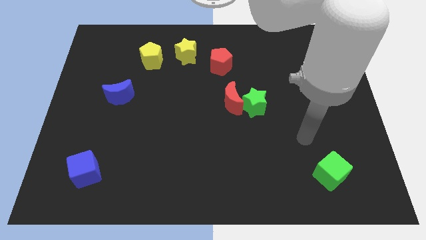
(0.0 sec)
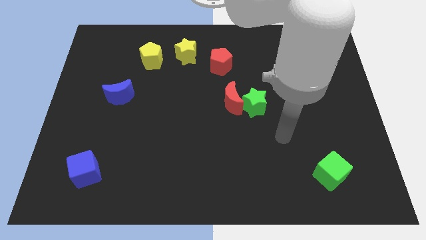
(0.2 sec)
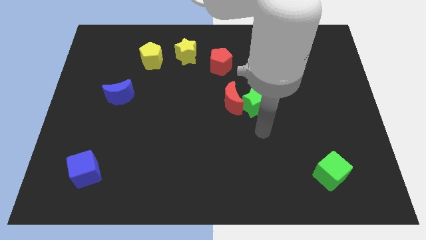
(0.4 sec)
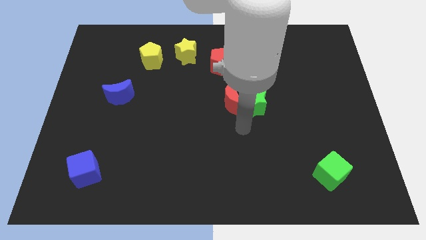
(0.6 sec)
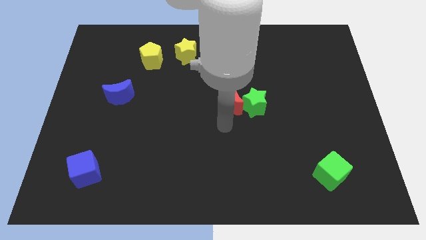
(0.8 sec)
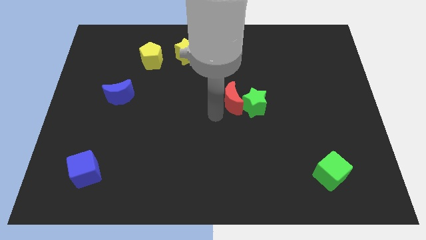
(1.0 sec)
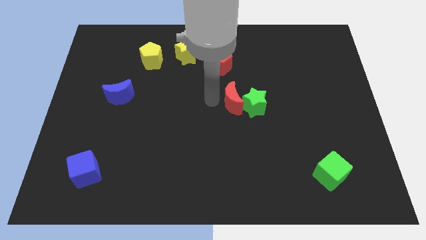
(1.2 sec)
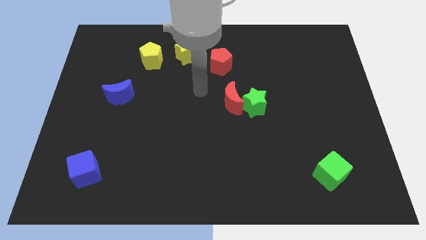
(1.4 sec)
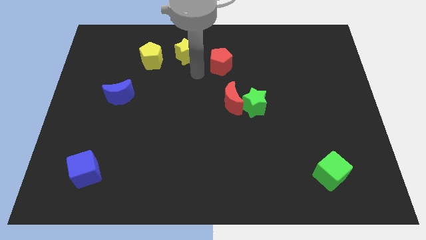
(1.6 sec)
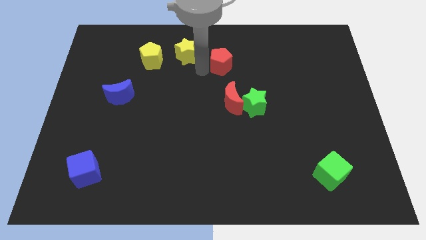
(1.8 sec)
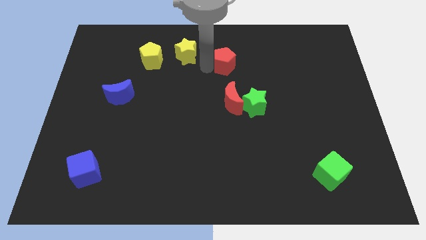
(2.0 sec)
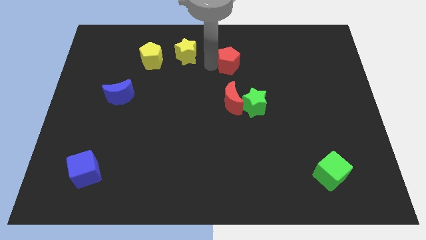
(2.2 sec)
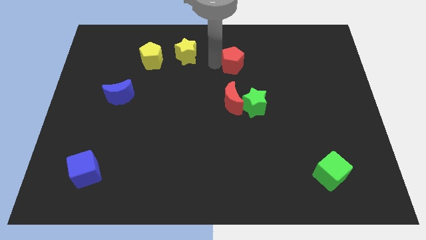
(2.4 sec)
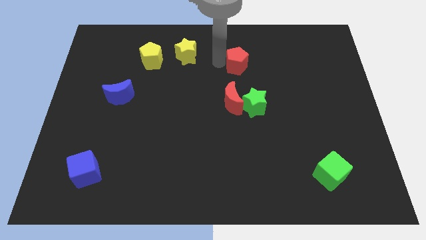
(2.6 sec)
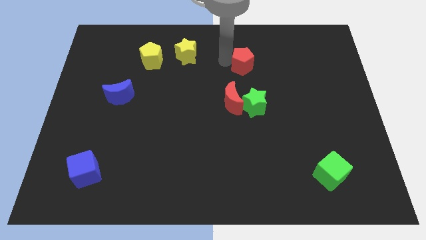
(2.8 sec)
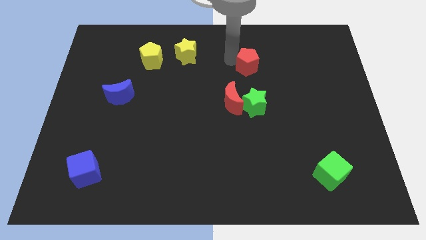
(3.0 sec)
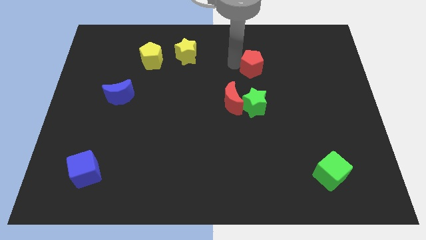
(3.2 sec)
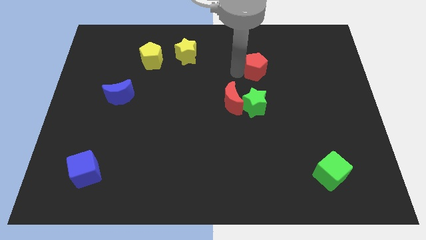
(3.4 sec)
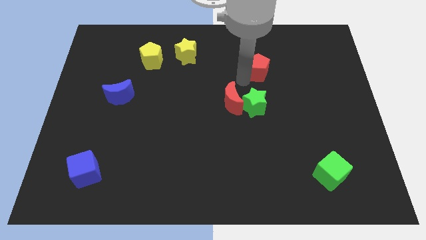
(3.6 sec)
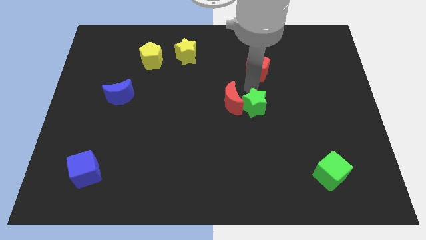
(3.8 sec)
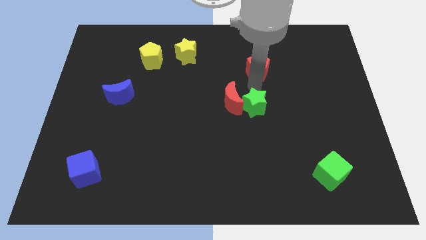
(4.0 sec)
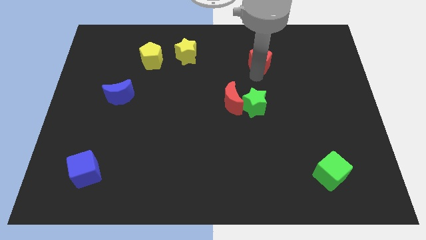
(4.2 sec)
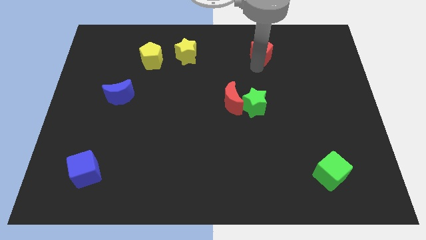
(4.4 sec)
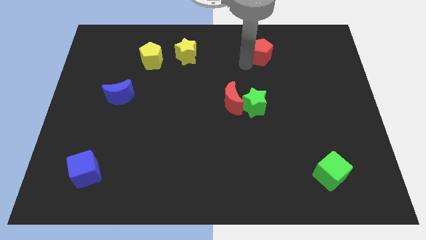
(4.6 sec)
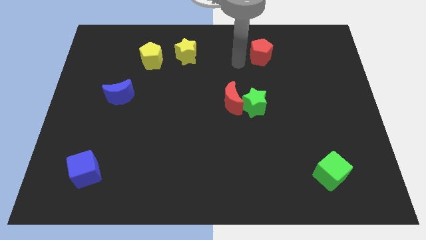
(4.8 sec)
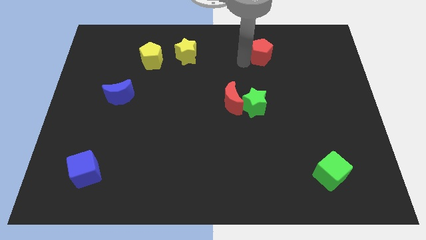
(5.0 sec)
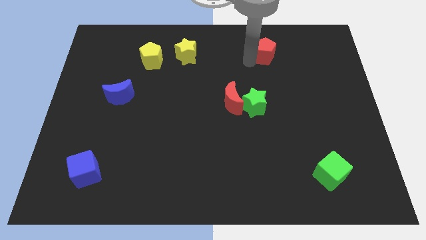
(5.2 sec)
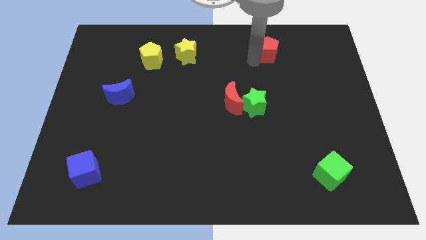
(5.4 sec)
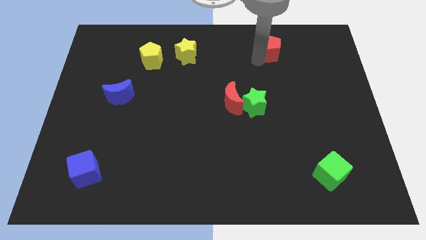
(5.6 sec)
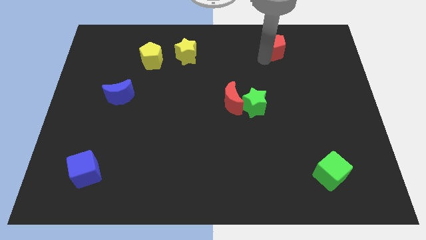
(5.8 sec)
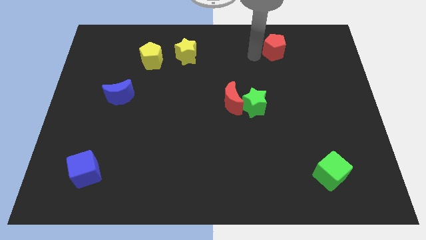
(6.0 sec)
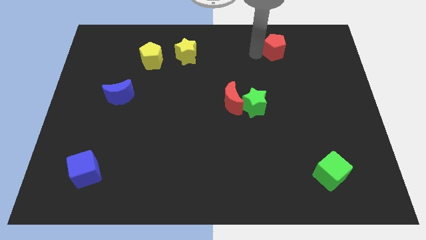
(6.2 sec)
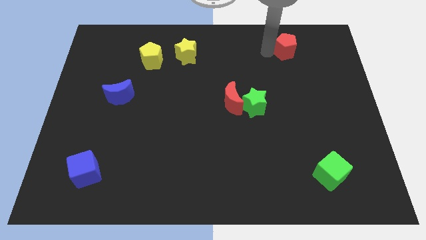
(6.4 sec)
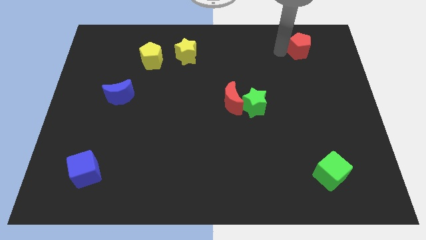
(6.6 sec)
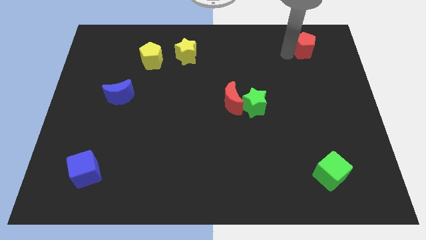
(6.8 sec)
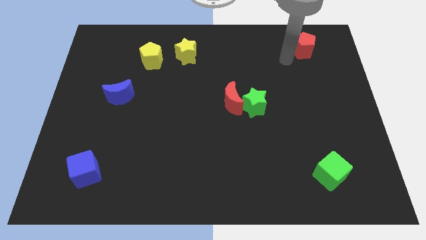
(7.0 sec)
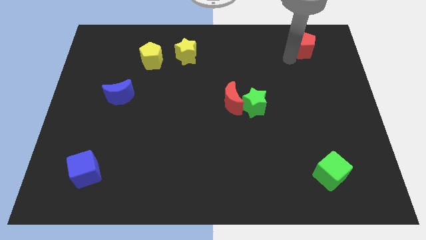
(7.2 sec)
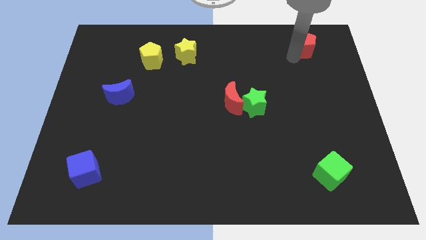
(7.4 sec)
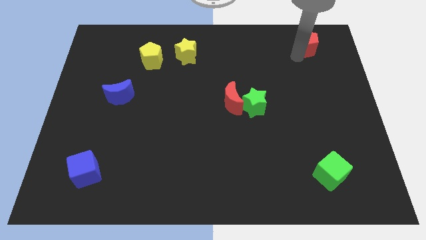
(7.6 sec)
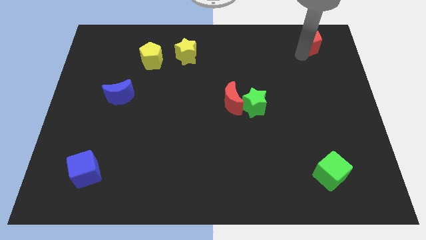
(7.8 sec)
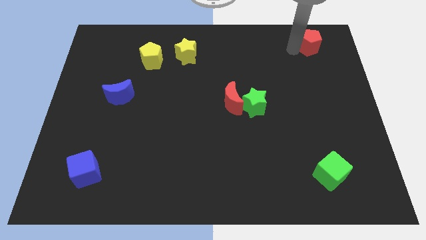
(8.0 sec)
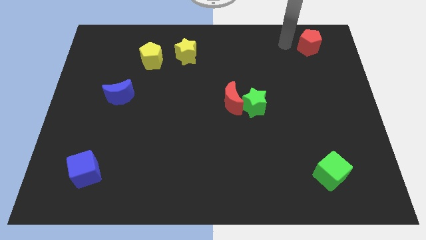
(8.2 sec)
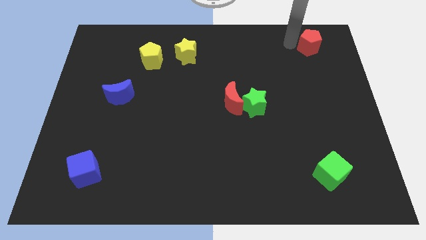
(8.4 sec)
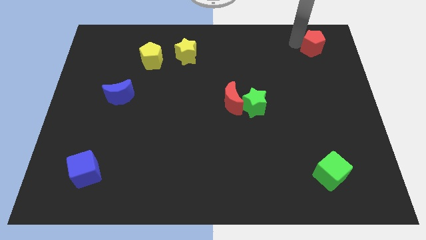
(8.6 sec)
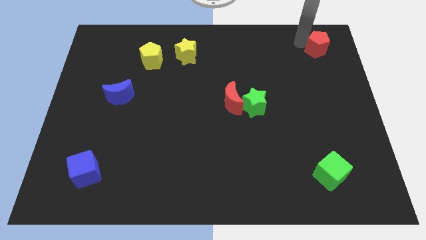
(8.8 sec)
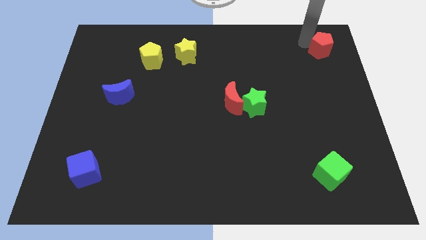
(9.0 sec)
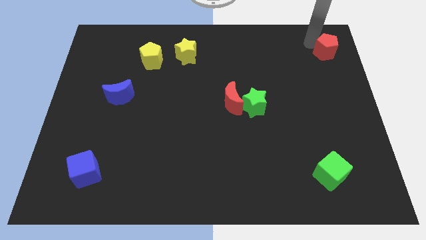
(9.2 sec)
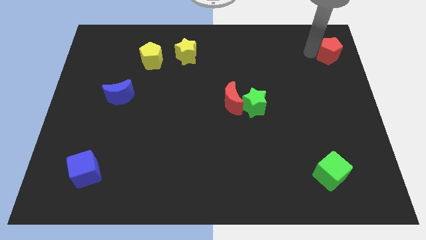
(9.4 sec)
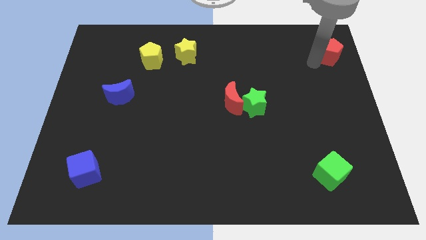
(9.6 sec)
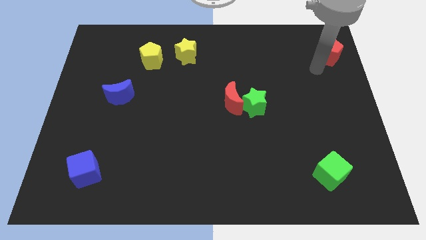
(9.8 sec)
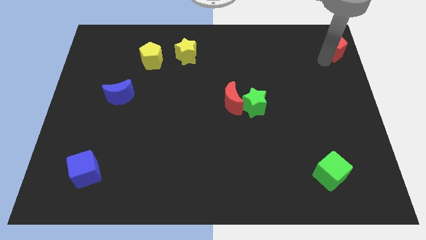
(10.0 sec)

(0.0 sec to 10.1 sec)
put the red pentagon to the top right of the board

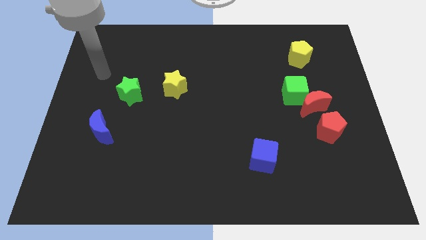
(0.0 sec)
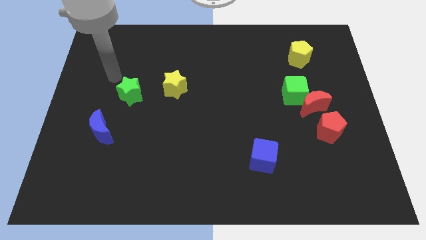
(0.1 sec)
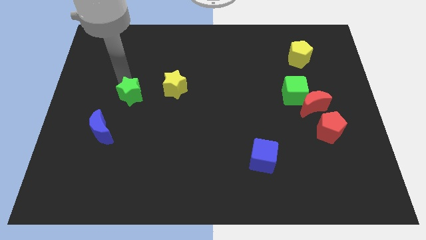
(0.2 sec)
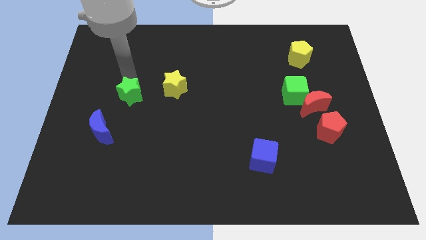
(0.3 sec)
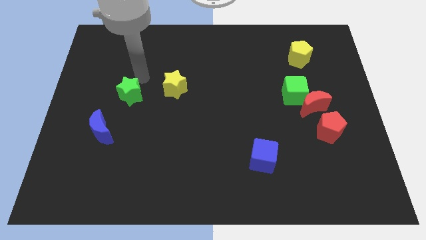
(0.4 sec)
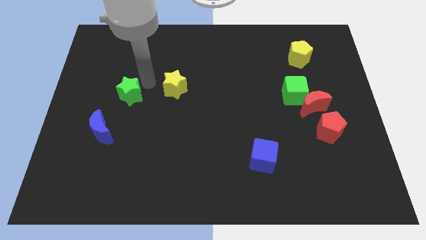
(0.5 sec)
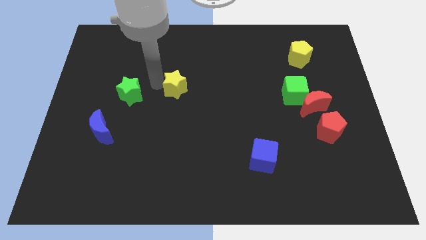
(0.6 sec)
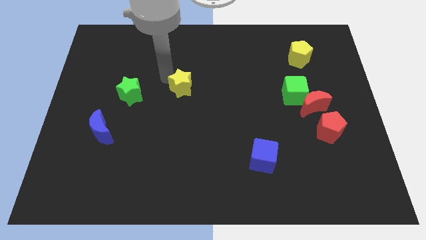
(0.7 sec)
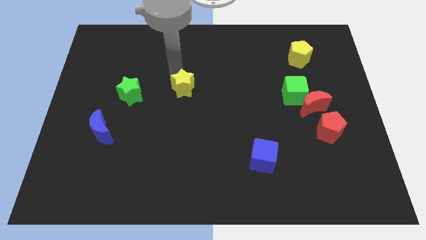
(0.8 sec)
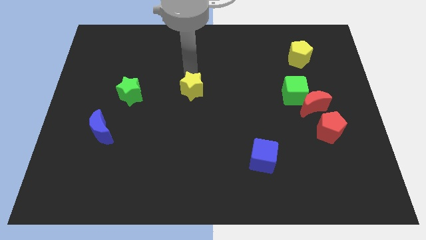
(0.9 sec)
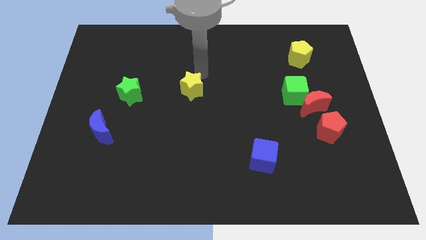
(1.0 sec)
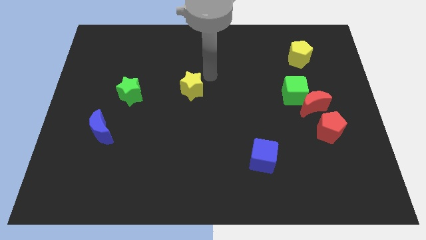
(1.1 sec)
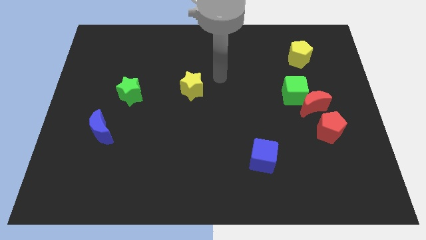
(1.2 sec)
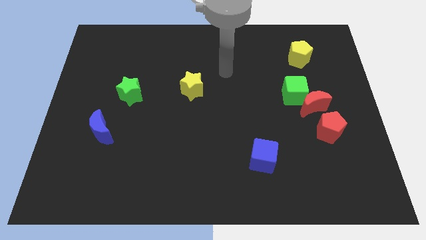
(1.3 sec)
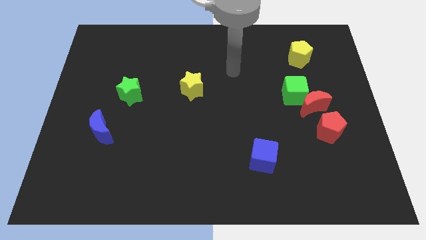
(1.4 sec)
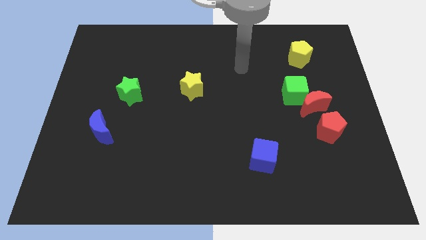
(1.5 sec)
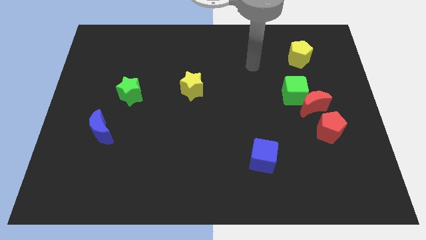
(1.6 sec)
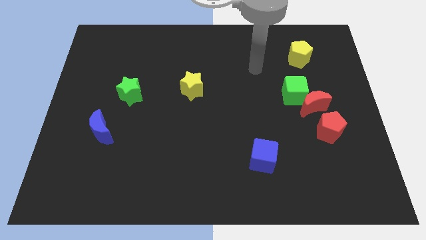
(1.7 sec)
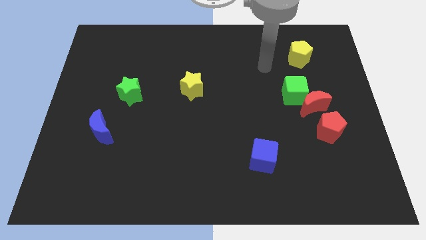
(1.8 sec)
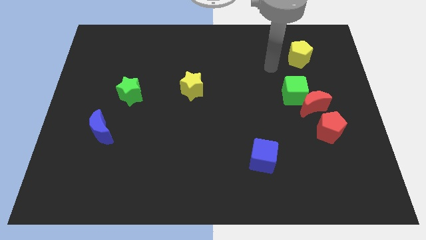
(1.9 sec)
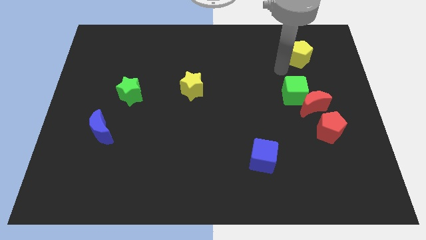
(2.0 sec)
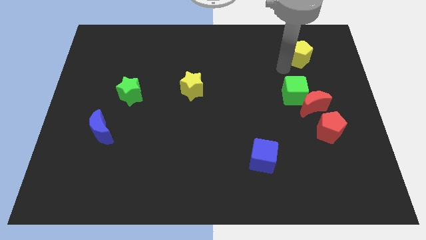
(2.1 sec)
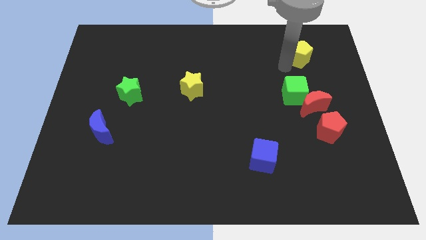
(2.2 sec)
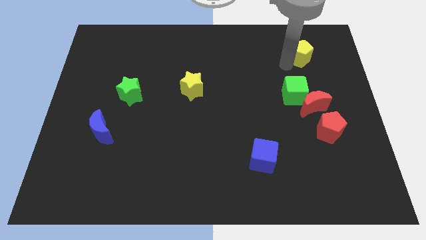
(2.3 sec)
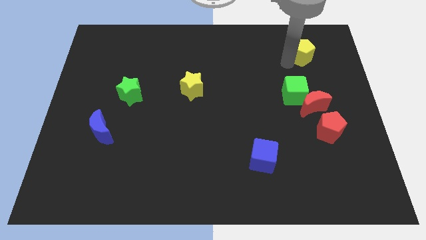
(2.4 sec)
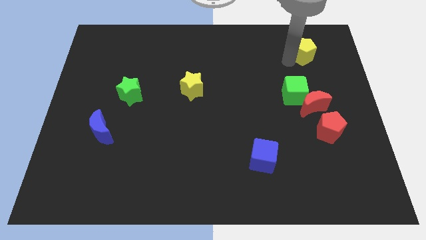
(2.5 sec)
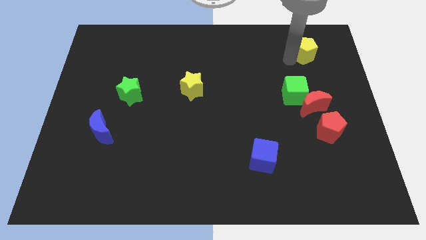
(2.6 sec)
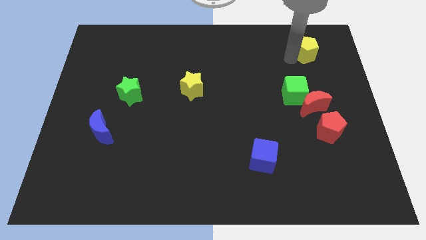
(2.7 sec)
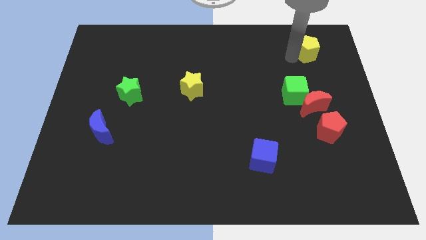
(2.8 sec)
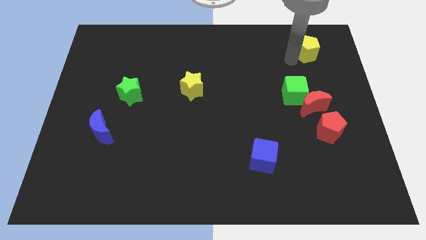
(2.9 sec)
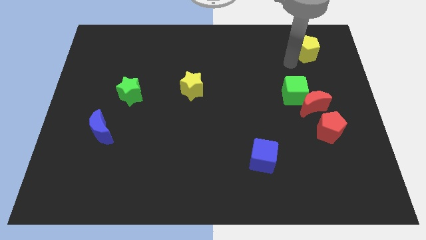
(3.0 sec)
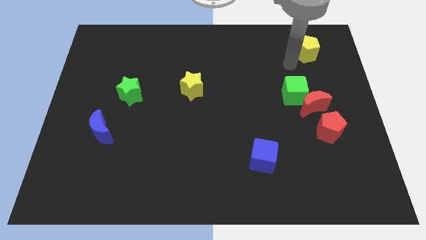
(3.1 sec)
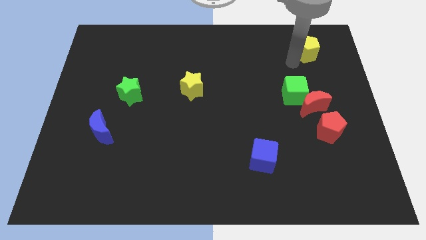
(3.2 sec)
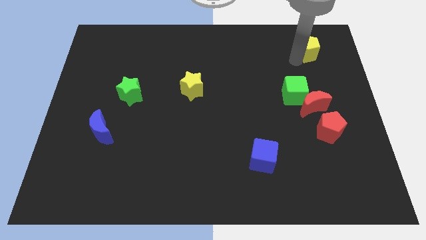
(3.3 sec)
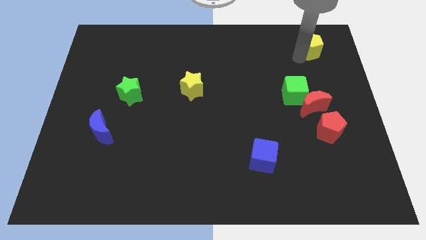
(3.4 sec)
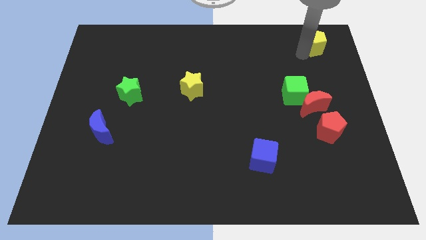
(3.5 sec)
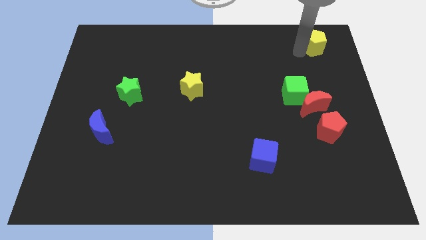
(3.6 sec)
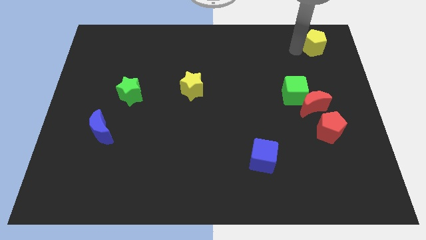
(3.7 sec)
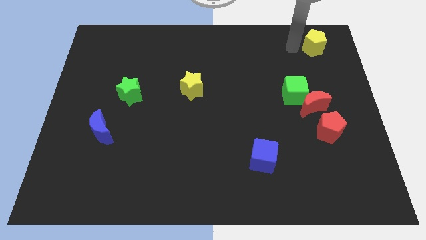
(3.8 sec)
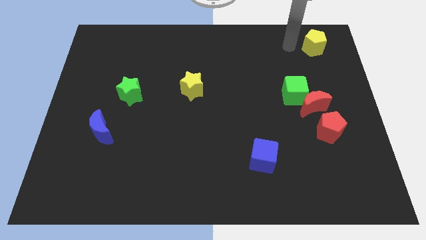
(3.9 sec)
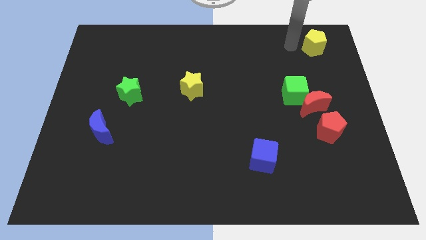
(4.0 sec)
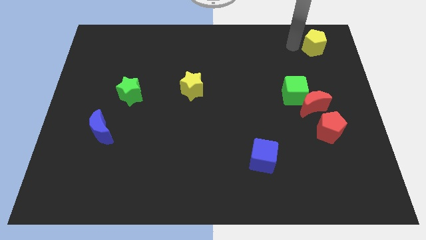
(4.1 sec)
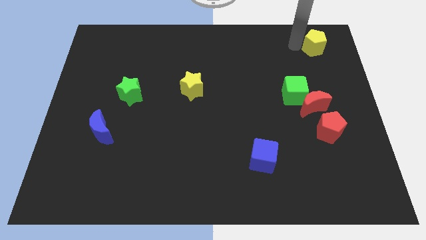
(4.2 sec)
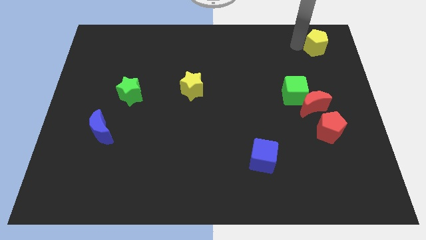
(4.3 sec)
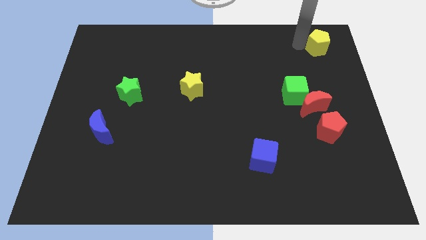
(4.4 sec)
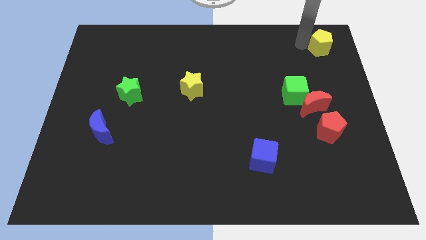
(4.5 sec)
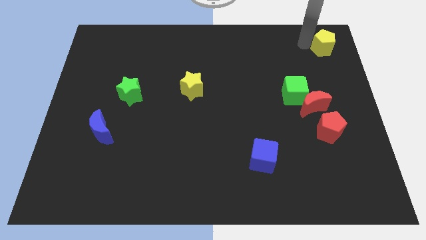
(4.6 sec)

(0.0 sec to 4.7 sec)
put the yellow pentagon to the top right of the board
